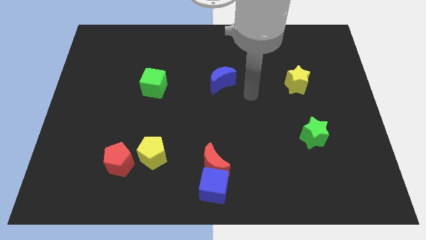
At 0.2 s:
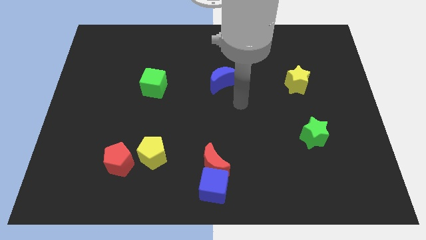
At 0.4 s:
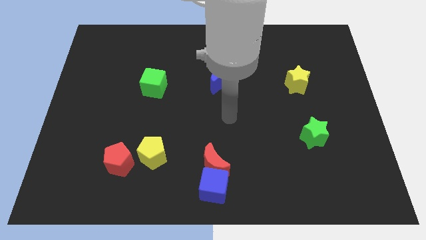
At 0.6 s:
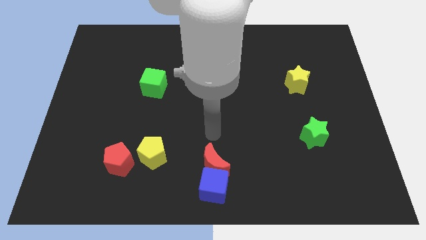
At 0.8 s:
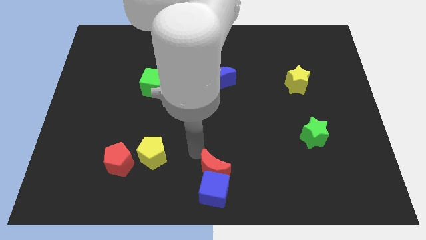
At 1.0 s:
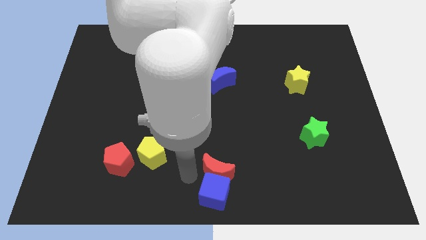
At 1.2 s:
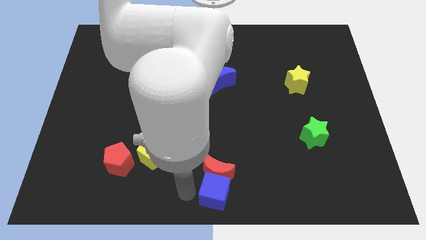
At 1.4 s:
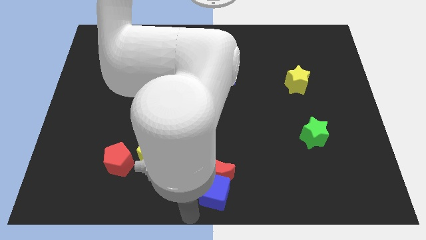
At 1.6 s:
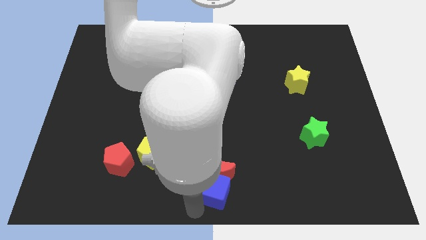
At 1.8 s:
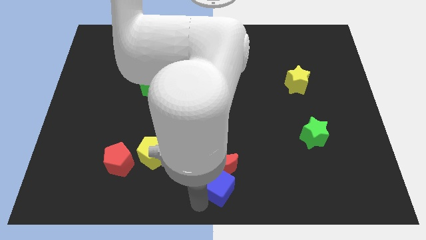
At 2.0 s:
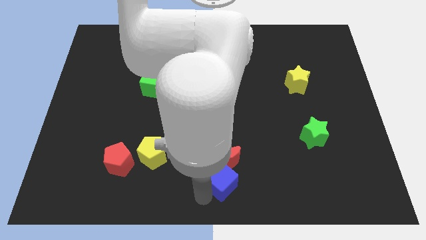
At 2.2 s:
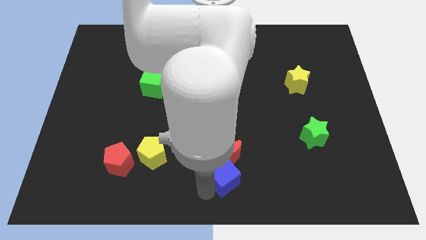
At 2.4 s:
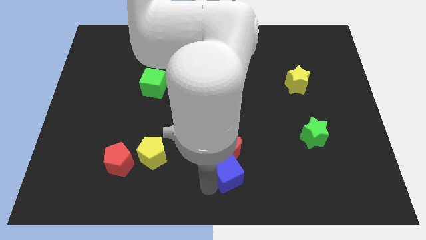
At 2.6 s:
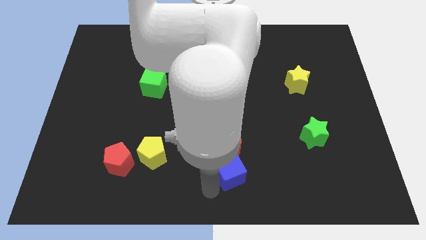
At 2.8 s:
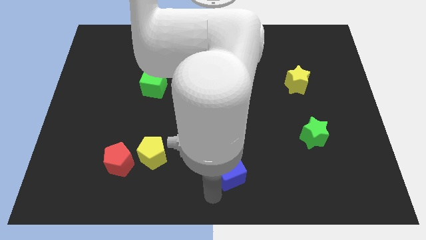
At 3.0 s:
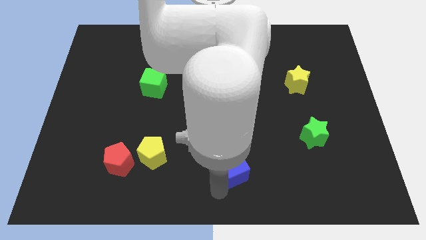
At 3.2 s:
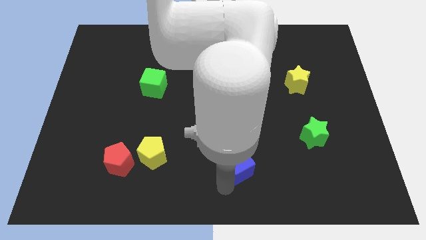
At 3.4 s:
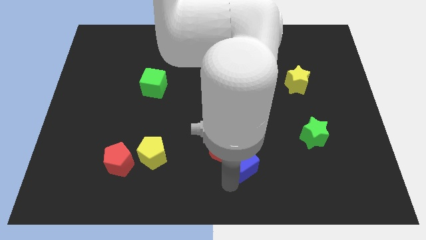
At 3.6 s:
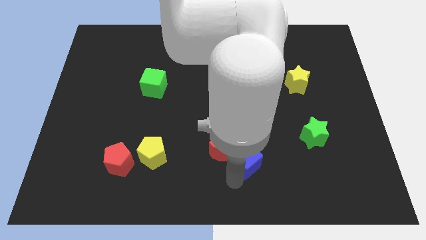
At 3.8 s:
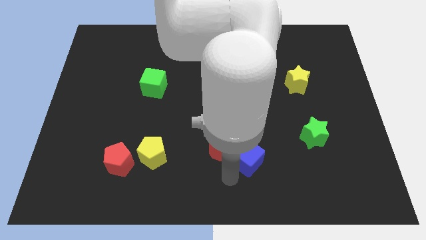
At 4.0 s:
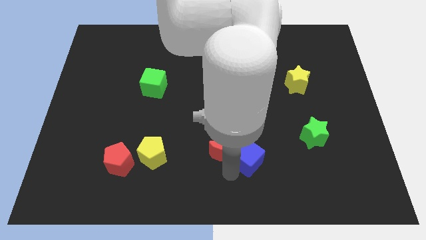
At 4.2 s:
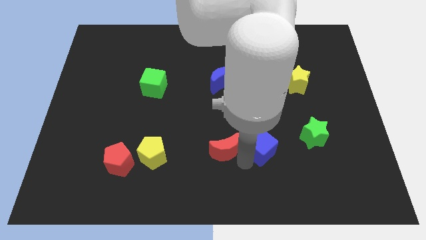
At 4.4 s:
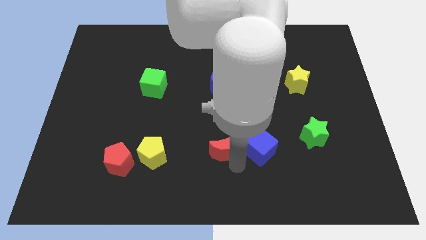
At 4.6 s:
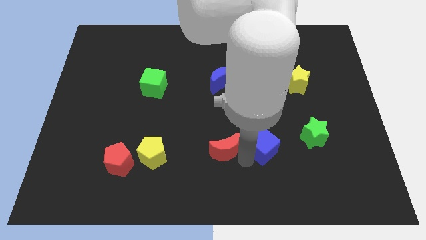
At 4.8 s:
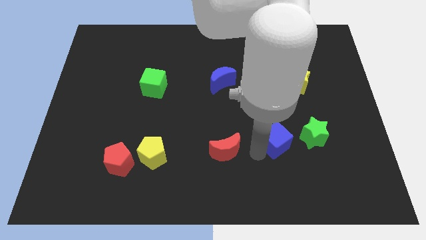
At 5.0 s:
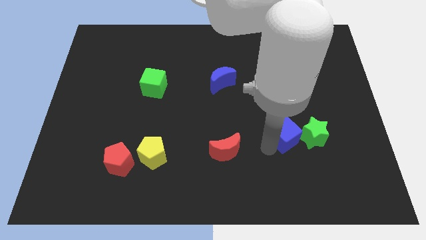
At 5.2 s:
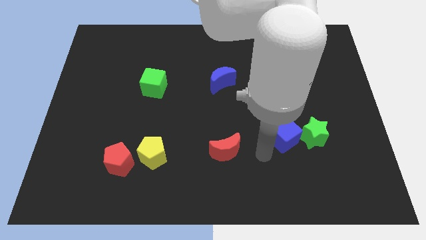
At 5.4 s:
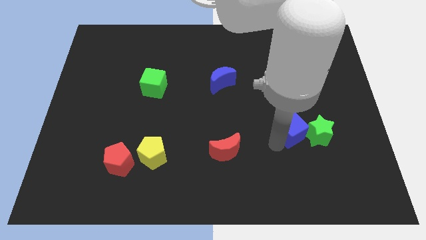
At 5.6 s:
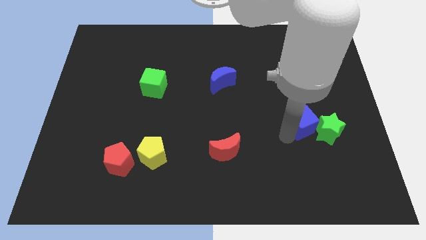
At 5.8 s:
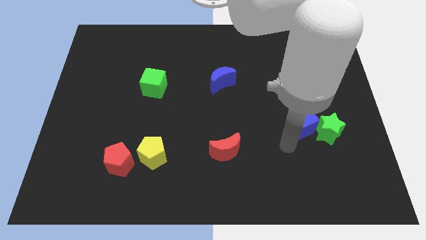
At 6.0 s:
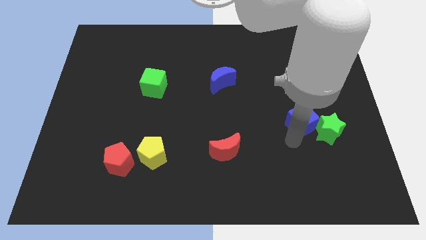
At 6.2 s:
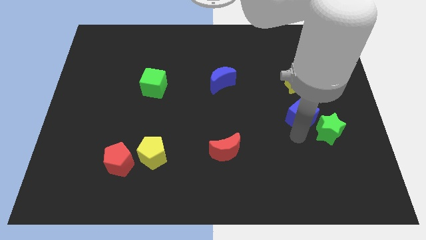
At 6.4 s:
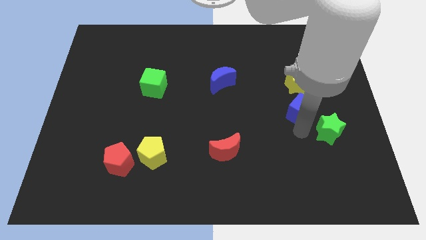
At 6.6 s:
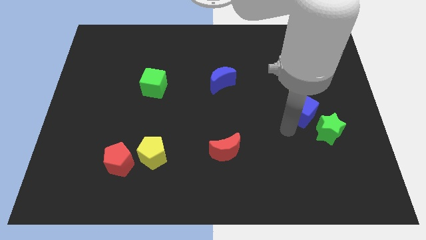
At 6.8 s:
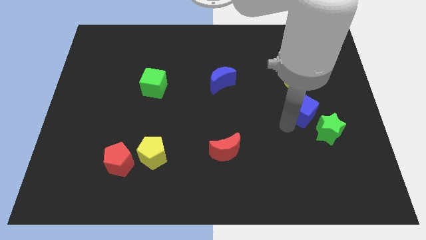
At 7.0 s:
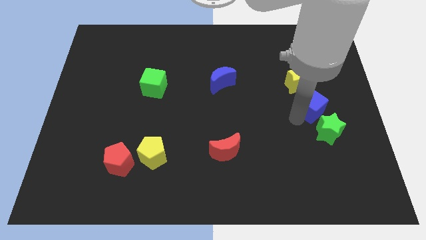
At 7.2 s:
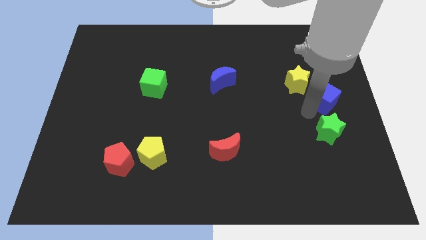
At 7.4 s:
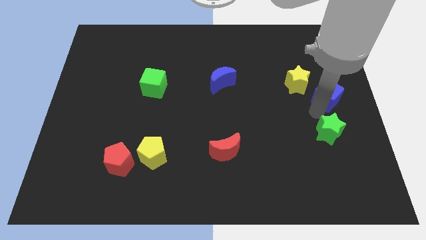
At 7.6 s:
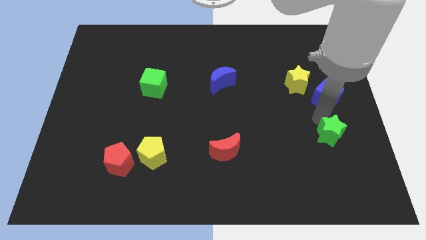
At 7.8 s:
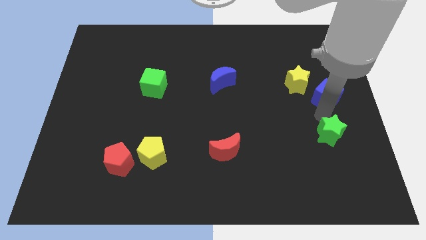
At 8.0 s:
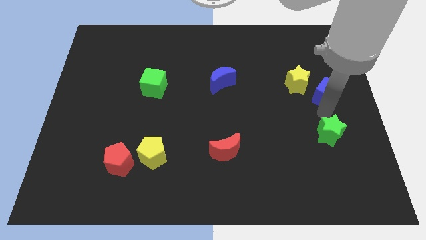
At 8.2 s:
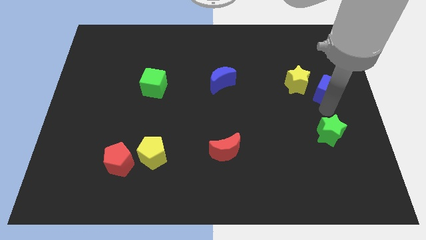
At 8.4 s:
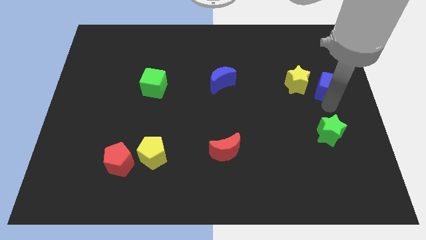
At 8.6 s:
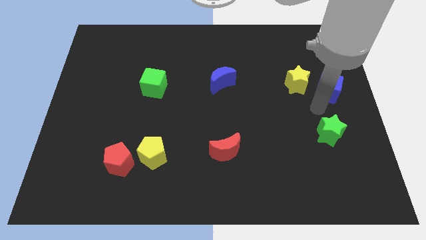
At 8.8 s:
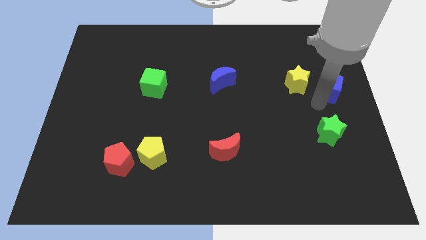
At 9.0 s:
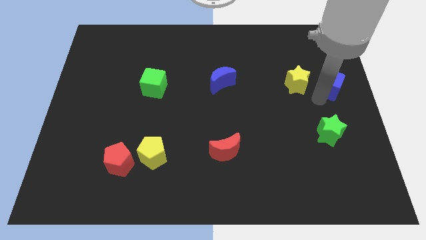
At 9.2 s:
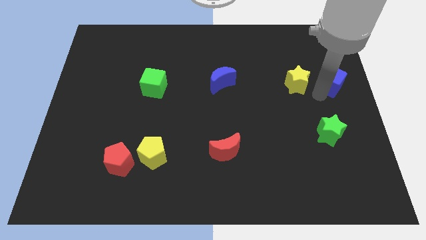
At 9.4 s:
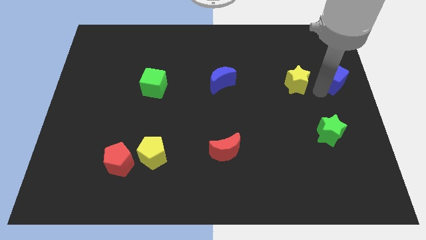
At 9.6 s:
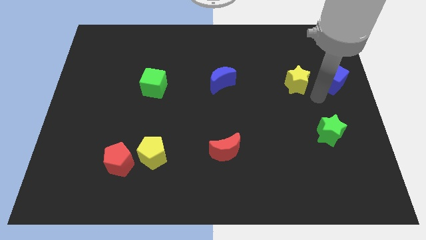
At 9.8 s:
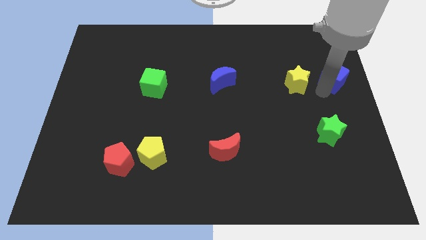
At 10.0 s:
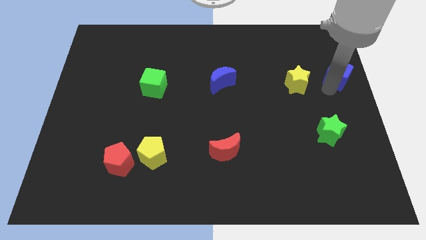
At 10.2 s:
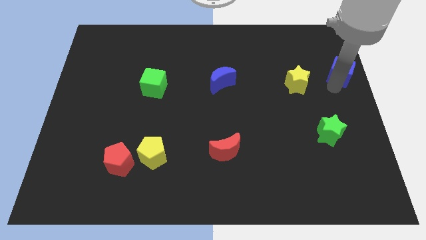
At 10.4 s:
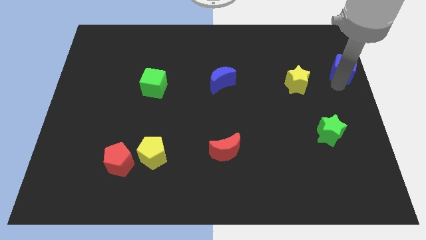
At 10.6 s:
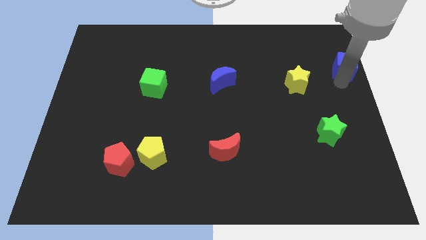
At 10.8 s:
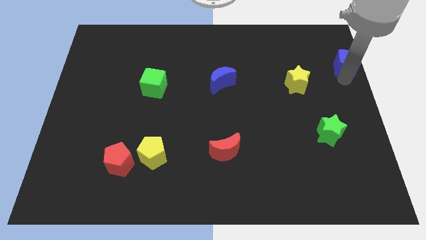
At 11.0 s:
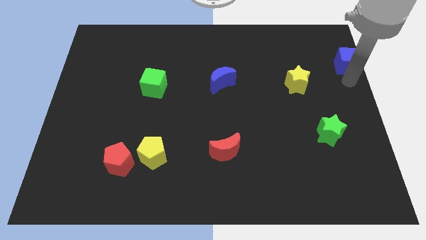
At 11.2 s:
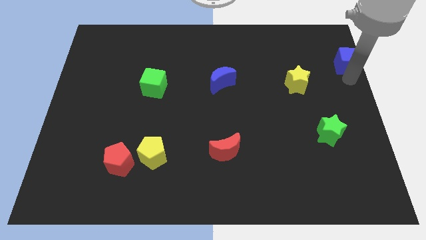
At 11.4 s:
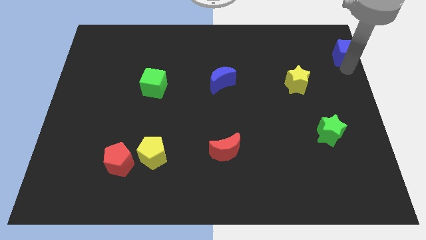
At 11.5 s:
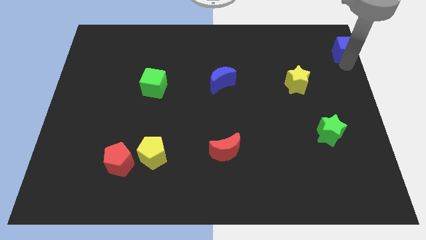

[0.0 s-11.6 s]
move the blue cube to the upper right corner
